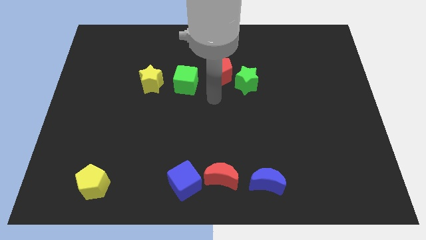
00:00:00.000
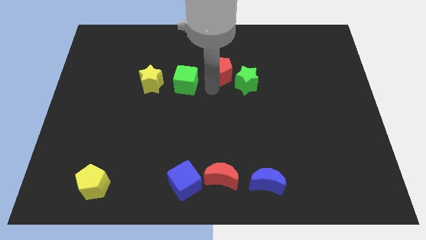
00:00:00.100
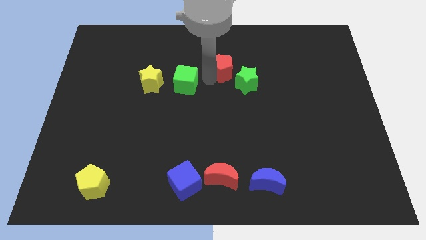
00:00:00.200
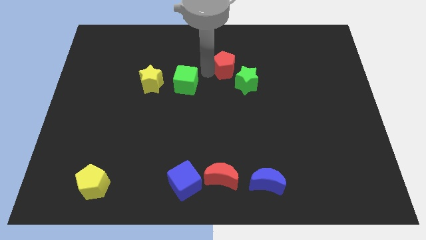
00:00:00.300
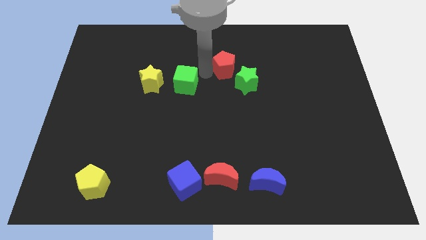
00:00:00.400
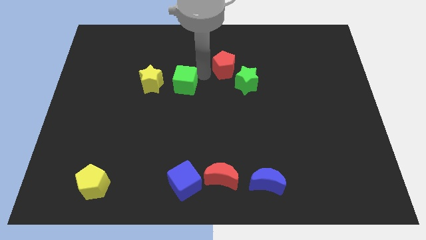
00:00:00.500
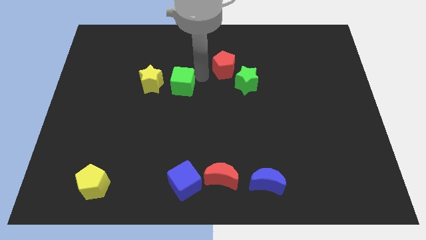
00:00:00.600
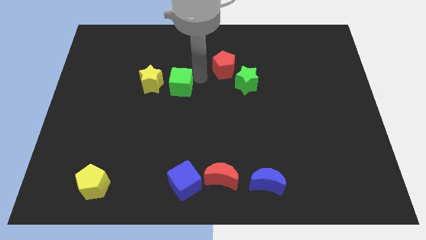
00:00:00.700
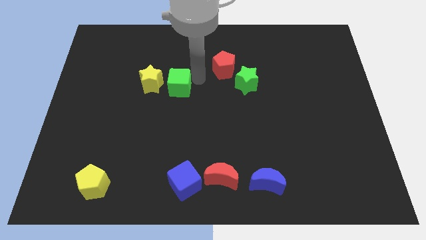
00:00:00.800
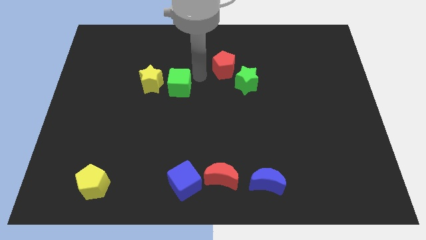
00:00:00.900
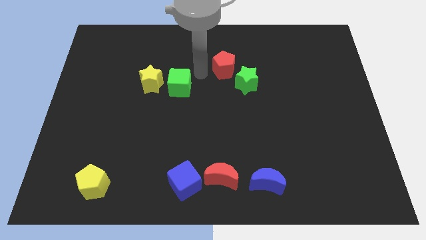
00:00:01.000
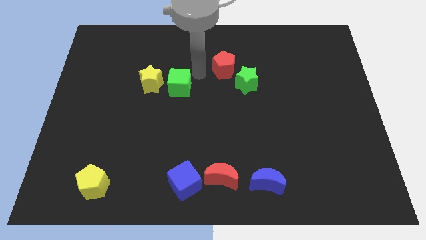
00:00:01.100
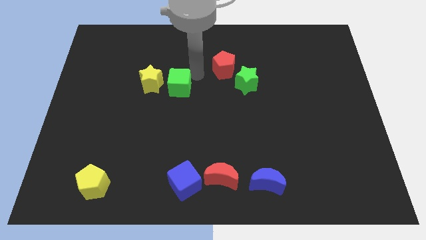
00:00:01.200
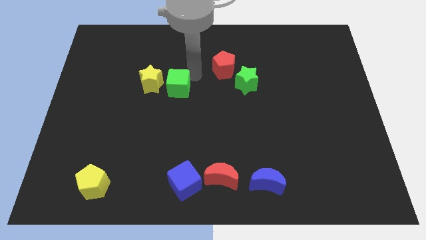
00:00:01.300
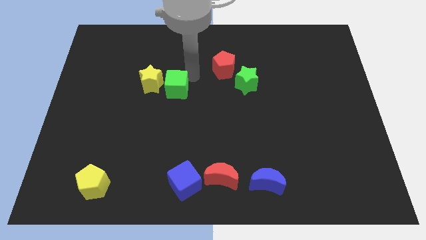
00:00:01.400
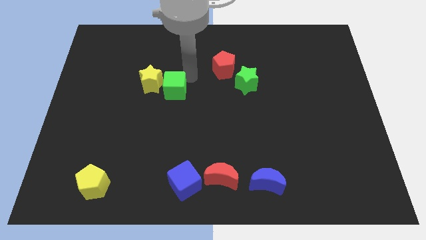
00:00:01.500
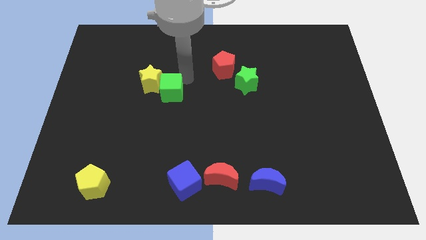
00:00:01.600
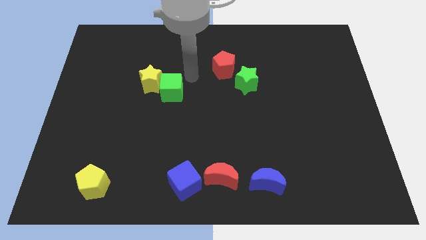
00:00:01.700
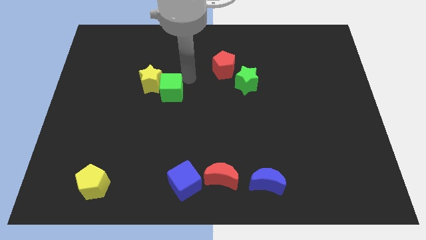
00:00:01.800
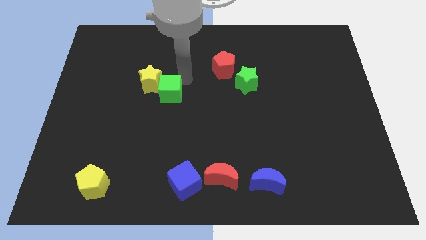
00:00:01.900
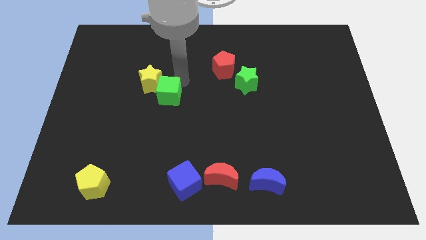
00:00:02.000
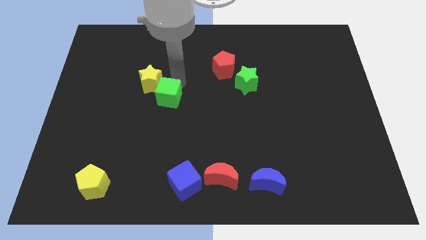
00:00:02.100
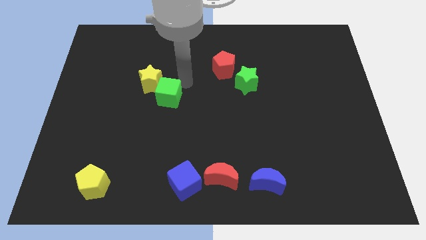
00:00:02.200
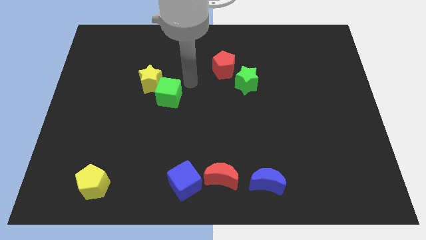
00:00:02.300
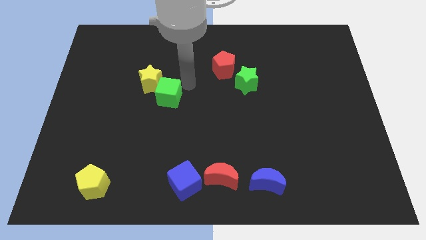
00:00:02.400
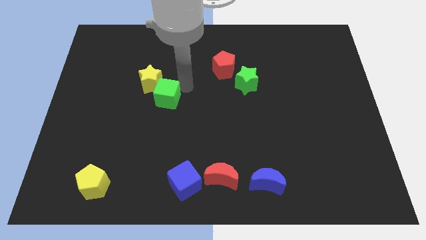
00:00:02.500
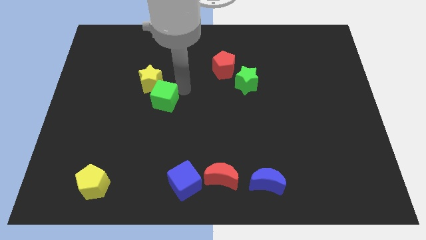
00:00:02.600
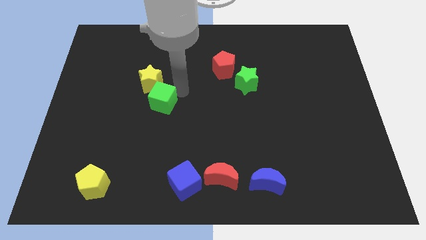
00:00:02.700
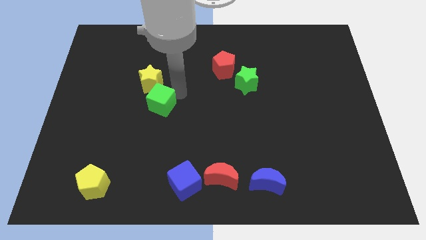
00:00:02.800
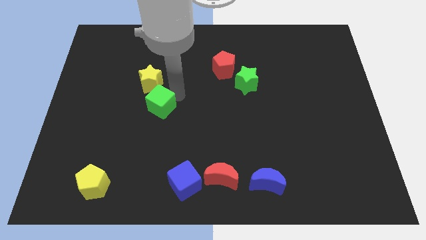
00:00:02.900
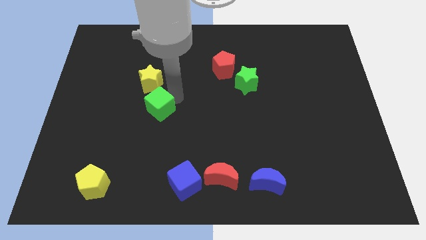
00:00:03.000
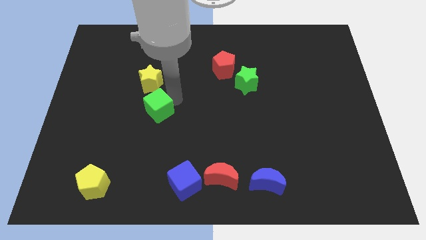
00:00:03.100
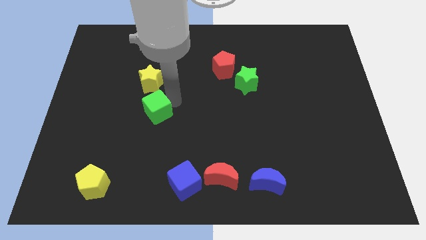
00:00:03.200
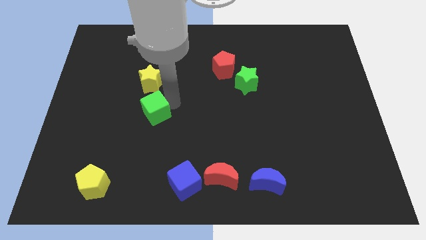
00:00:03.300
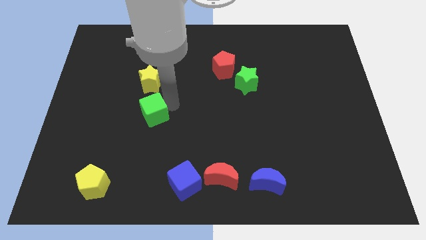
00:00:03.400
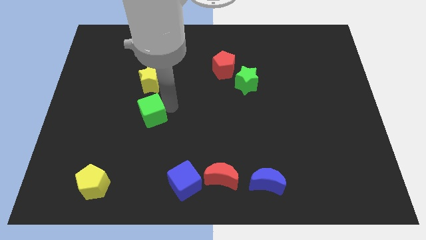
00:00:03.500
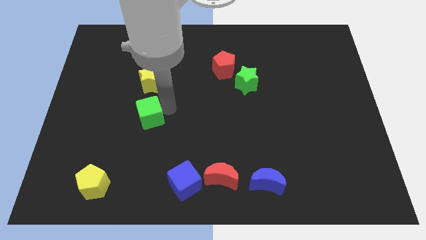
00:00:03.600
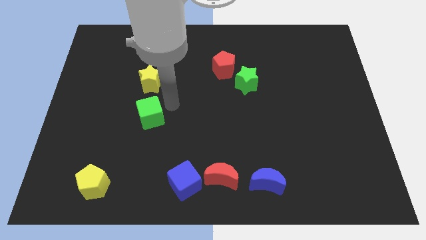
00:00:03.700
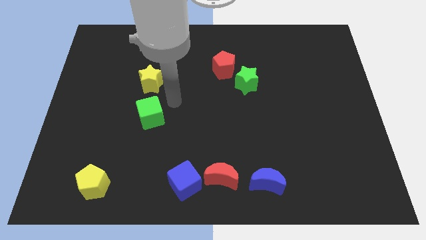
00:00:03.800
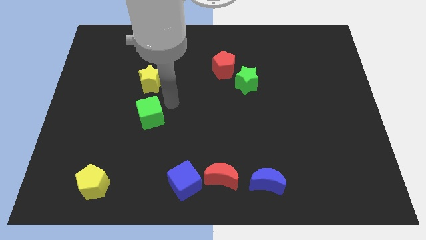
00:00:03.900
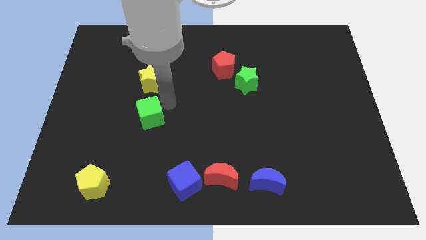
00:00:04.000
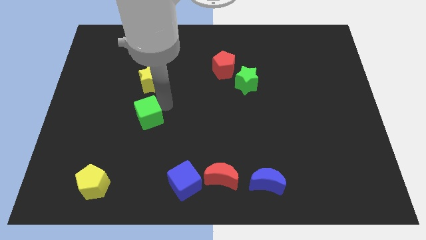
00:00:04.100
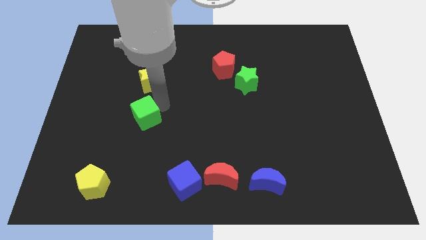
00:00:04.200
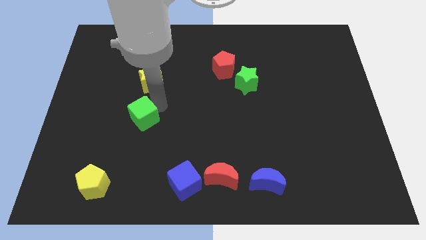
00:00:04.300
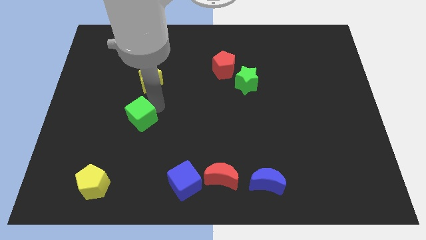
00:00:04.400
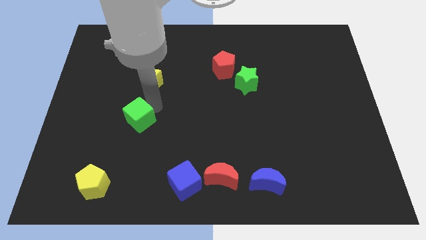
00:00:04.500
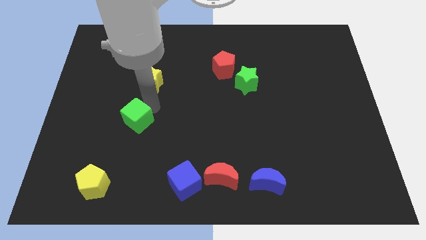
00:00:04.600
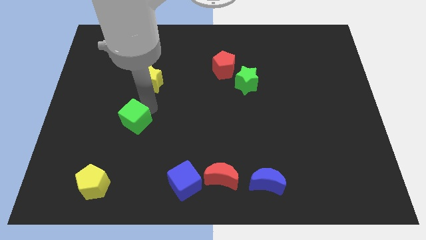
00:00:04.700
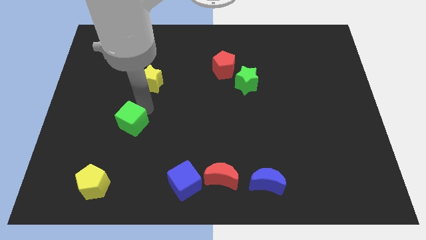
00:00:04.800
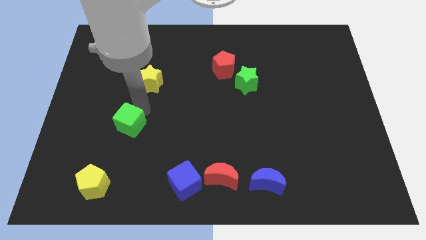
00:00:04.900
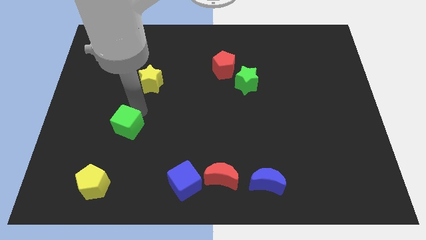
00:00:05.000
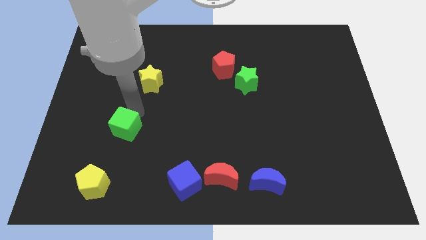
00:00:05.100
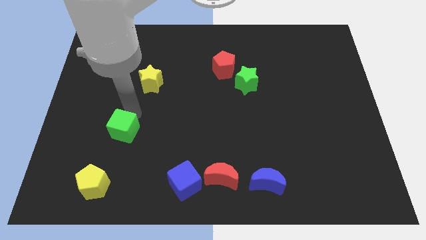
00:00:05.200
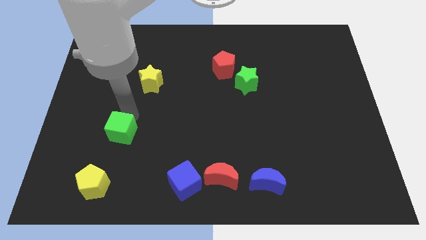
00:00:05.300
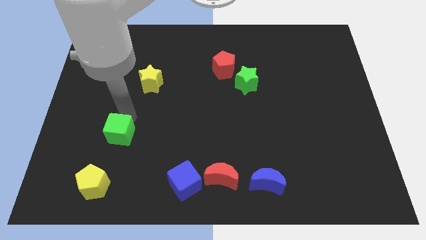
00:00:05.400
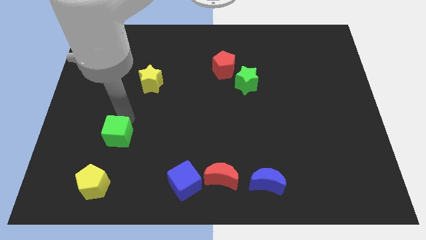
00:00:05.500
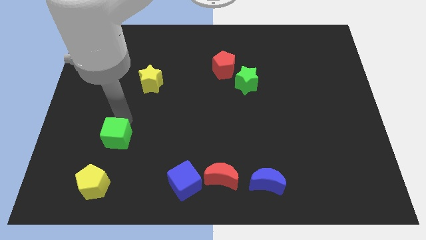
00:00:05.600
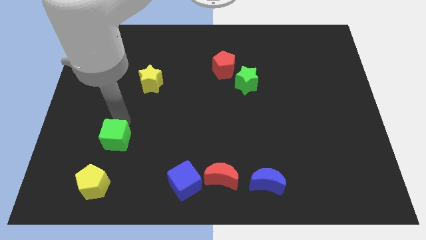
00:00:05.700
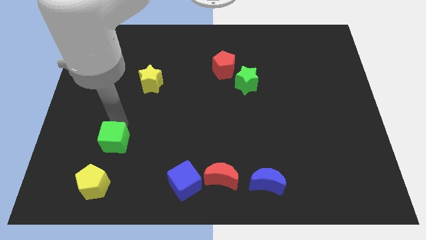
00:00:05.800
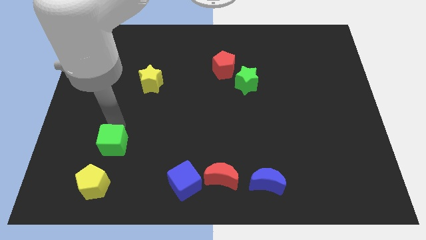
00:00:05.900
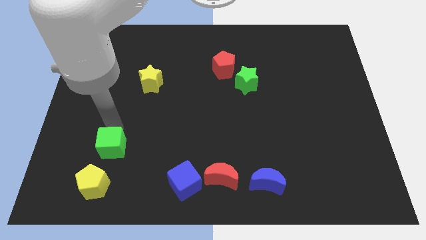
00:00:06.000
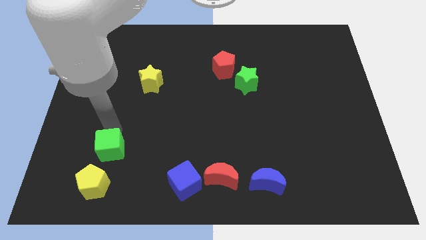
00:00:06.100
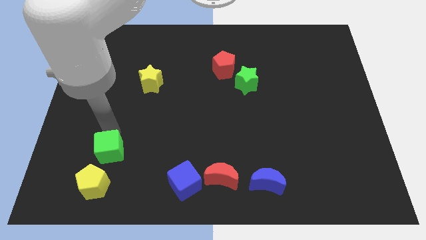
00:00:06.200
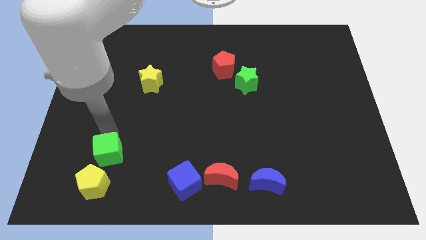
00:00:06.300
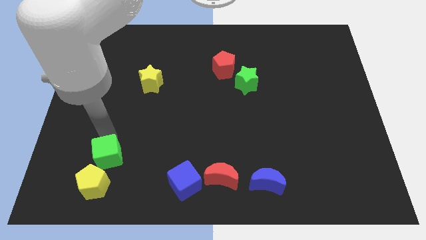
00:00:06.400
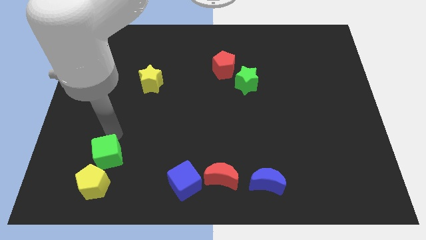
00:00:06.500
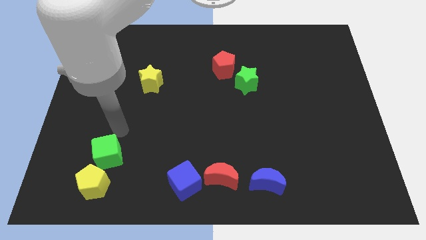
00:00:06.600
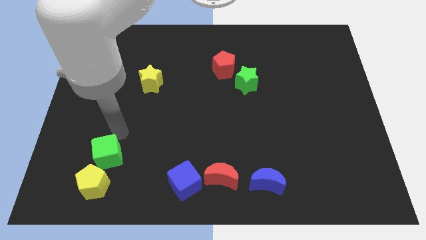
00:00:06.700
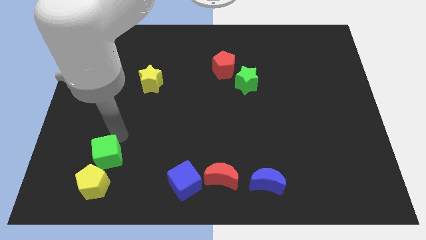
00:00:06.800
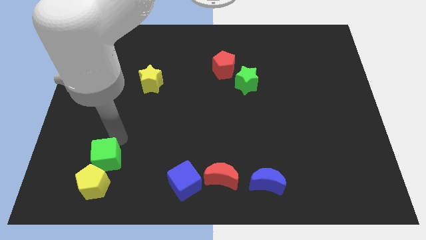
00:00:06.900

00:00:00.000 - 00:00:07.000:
put the green cube next to the yellow pentagon

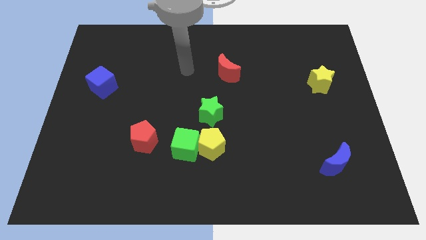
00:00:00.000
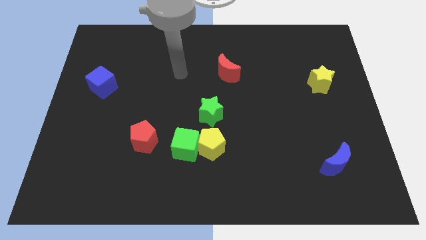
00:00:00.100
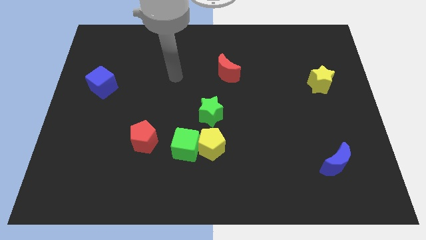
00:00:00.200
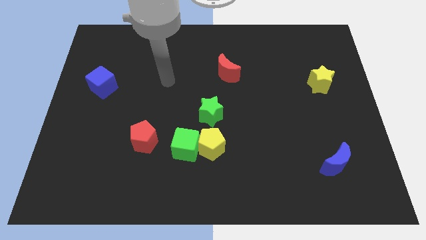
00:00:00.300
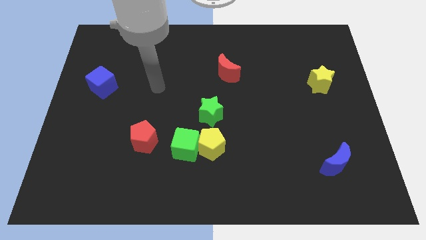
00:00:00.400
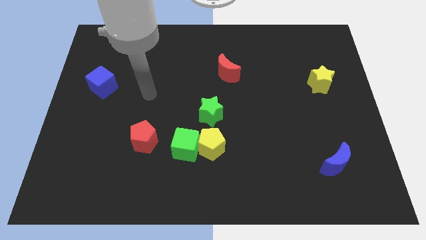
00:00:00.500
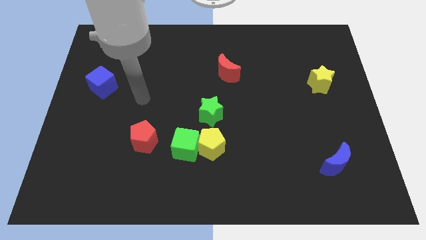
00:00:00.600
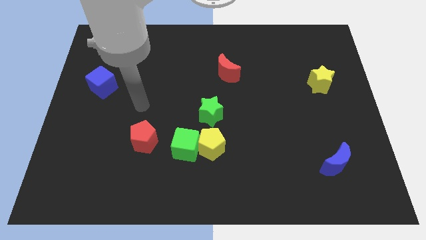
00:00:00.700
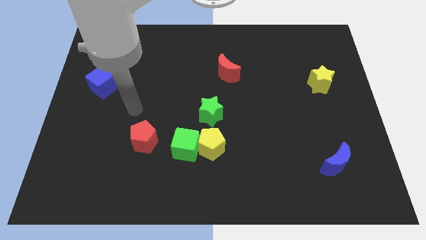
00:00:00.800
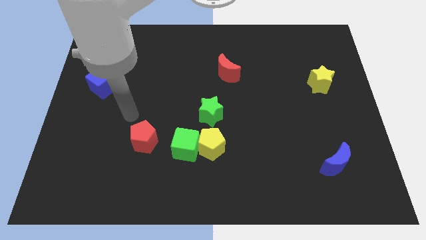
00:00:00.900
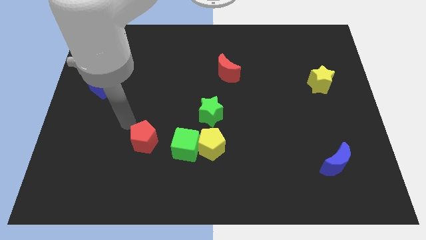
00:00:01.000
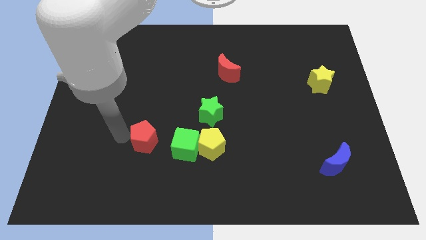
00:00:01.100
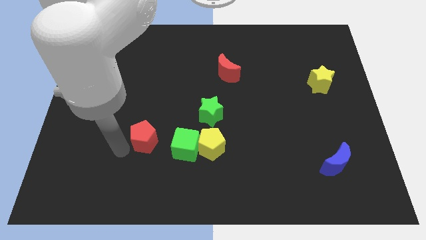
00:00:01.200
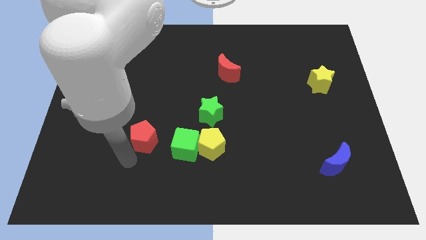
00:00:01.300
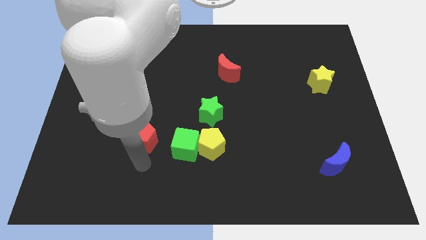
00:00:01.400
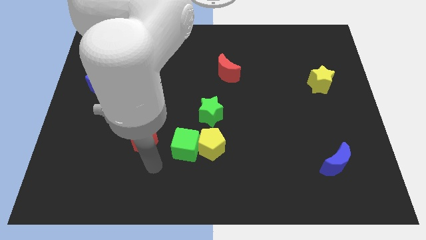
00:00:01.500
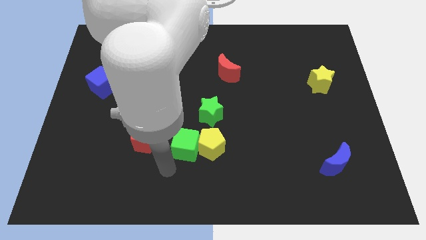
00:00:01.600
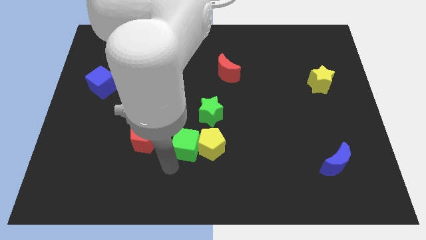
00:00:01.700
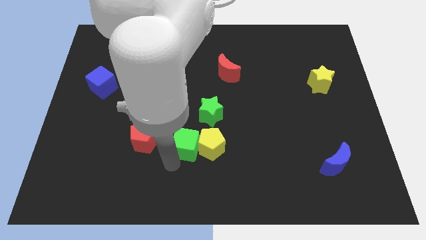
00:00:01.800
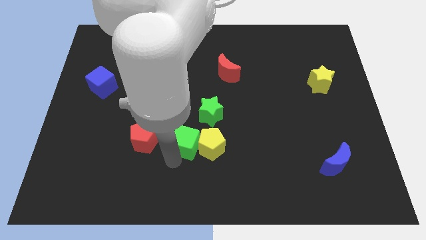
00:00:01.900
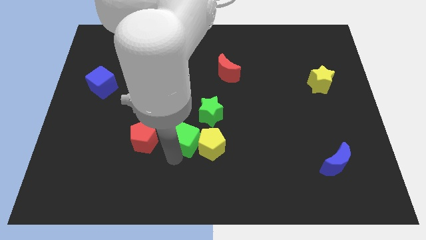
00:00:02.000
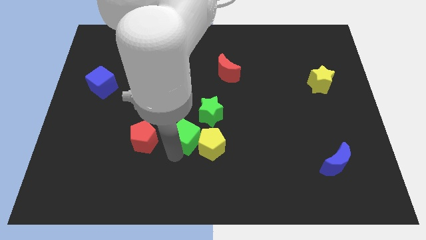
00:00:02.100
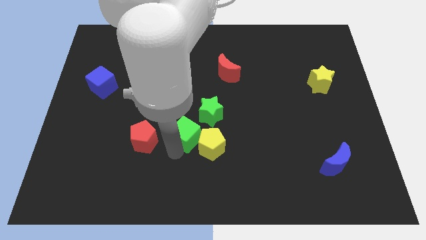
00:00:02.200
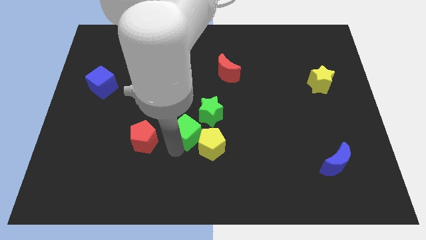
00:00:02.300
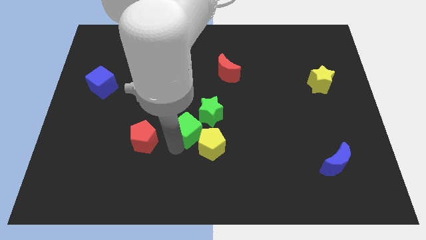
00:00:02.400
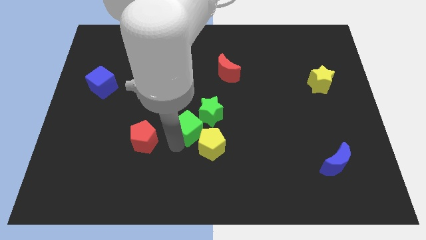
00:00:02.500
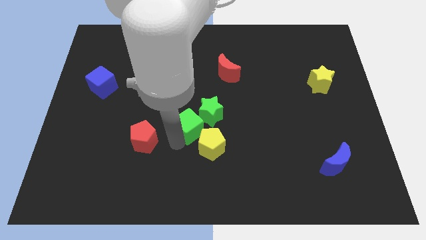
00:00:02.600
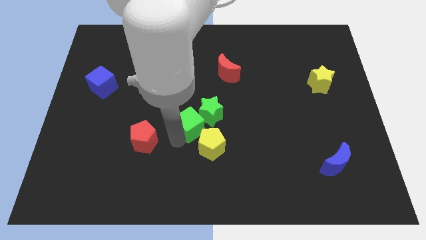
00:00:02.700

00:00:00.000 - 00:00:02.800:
put the green cube close to the green star
